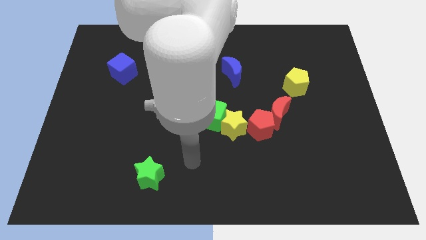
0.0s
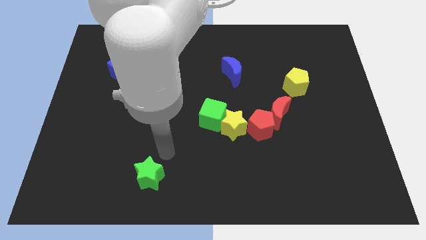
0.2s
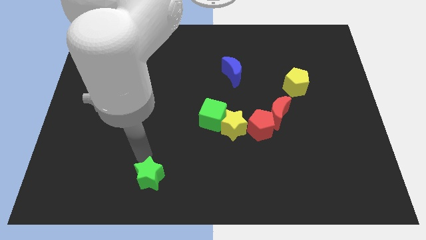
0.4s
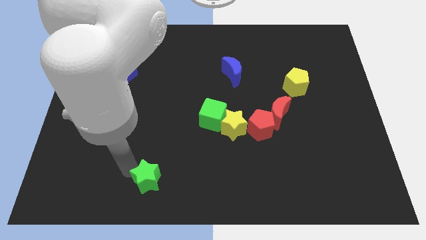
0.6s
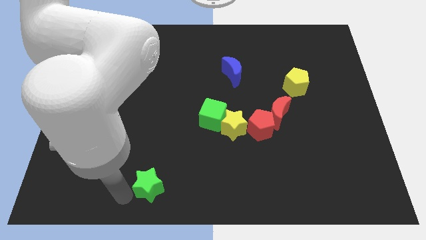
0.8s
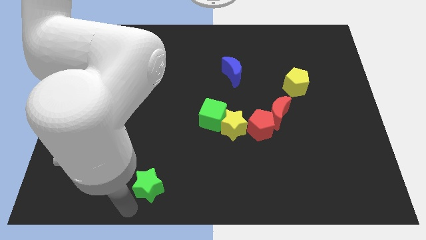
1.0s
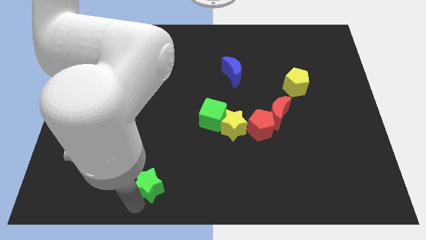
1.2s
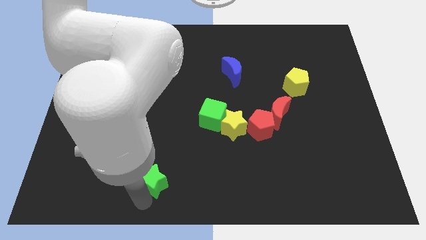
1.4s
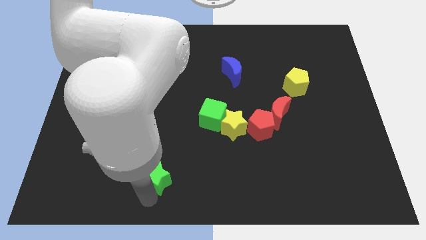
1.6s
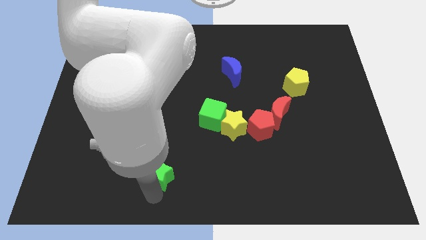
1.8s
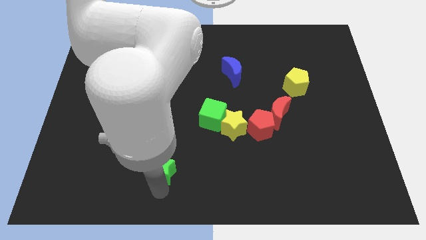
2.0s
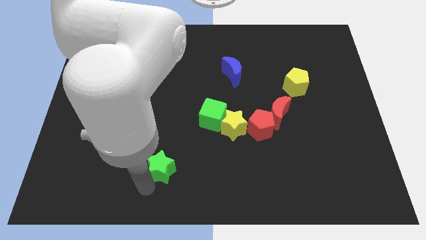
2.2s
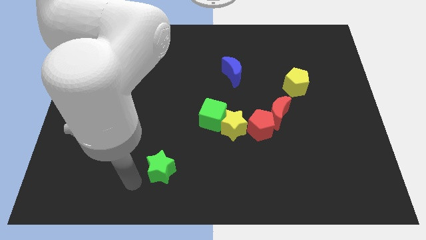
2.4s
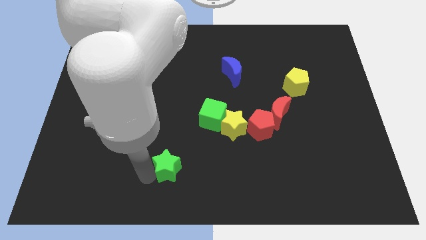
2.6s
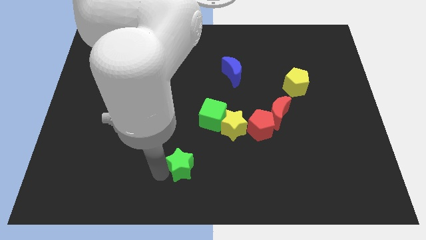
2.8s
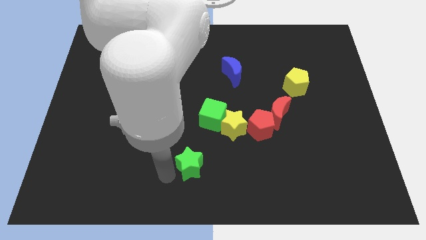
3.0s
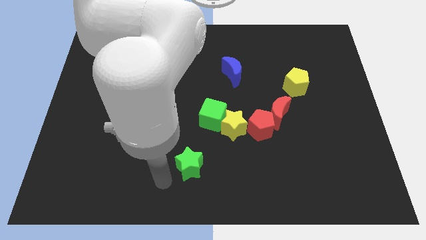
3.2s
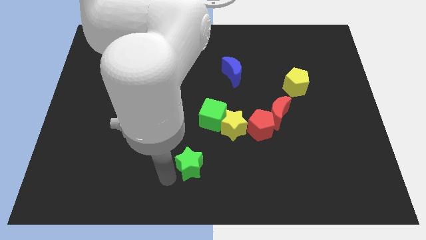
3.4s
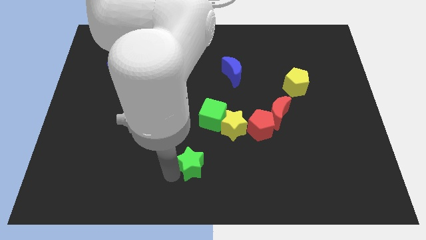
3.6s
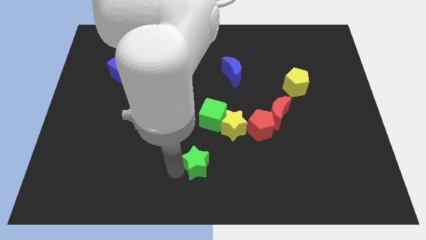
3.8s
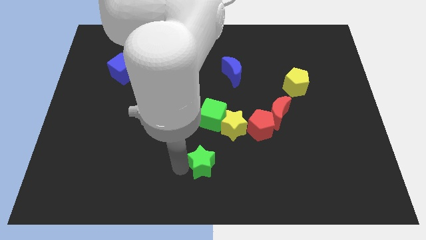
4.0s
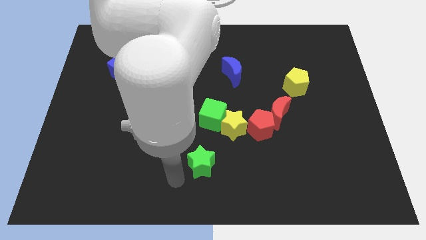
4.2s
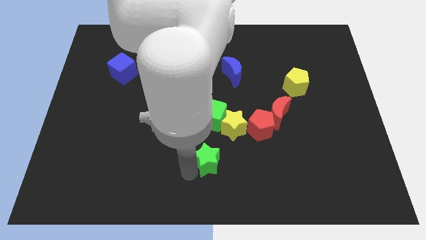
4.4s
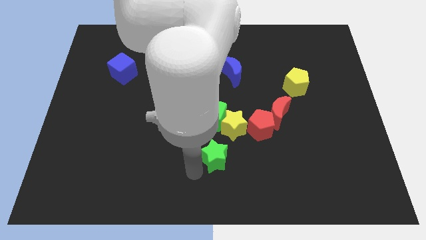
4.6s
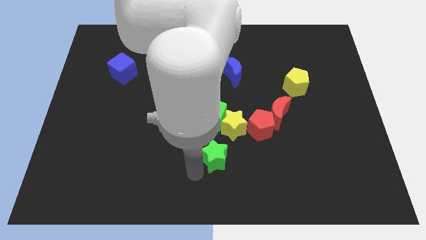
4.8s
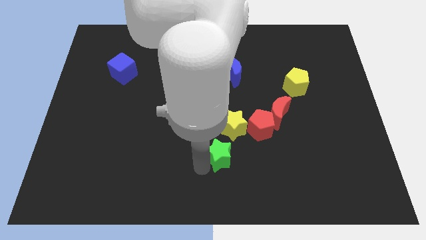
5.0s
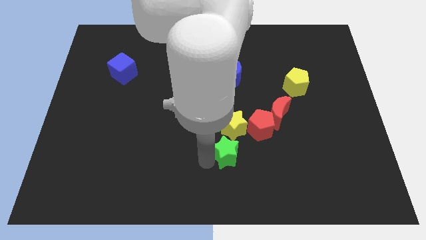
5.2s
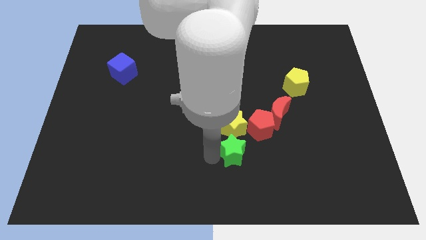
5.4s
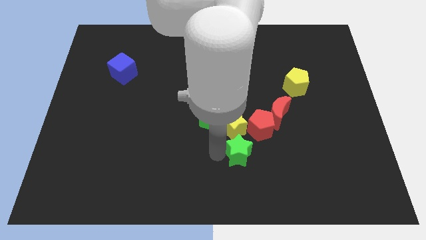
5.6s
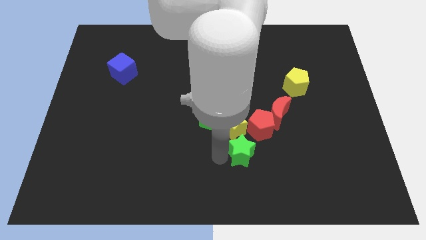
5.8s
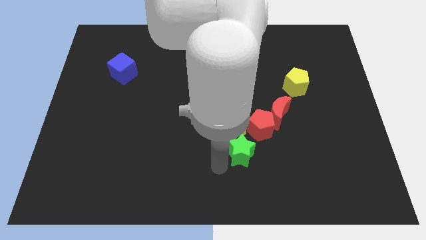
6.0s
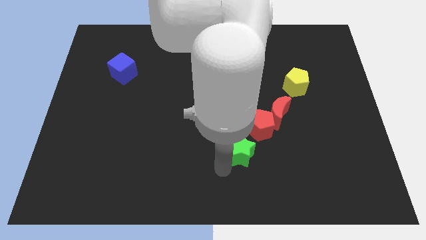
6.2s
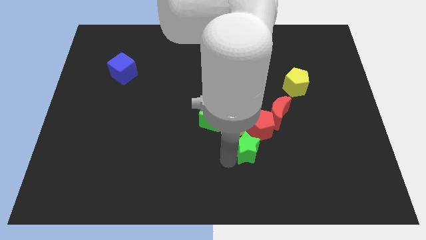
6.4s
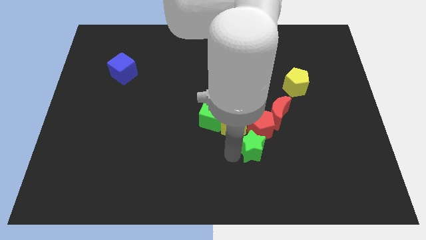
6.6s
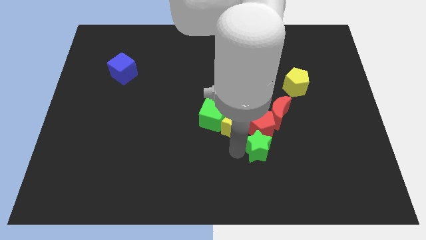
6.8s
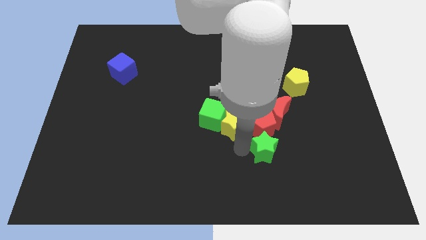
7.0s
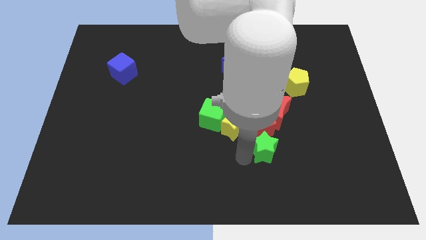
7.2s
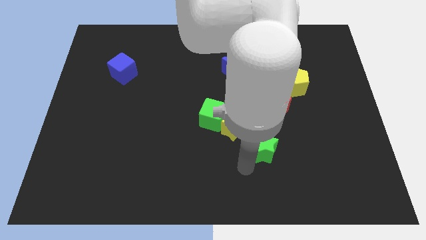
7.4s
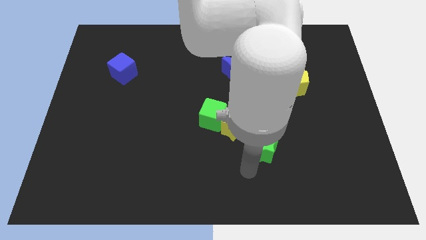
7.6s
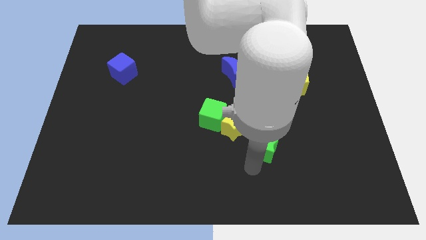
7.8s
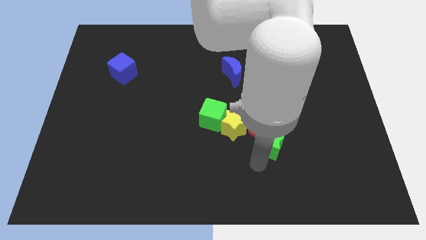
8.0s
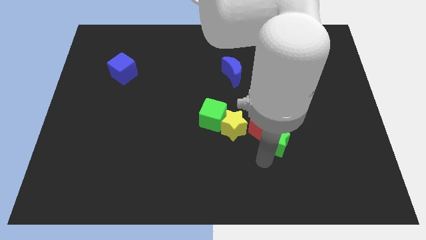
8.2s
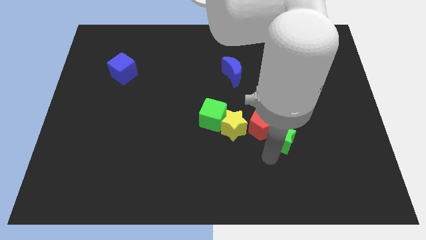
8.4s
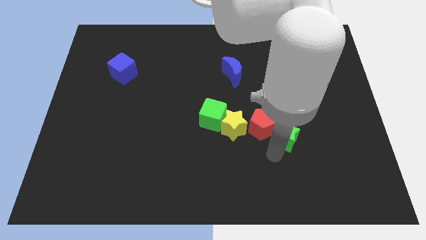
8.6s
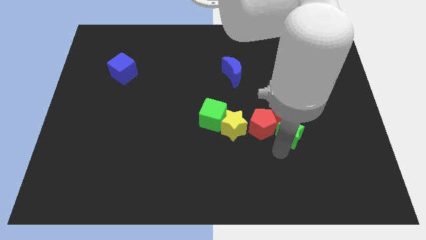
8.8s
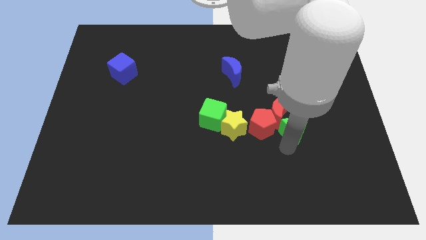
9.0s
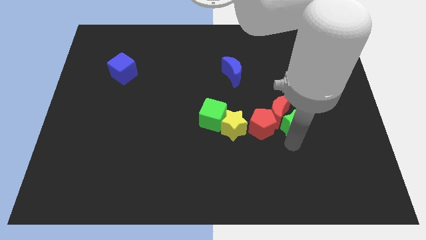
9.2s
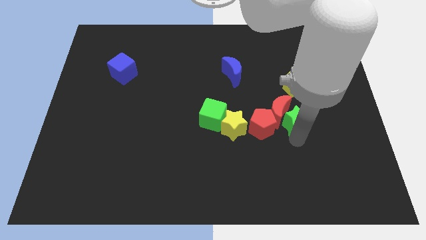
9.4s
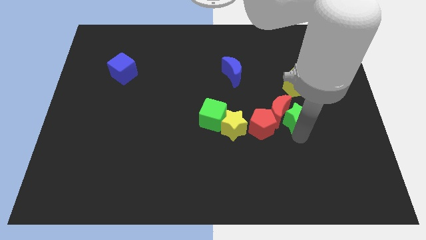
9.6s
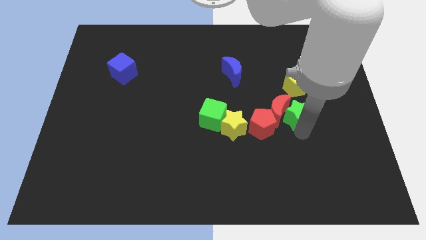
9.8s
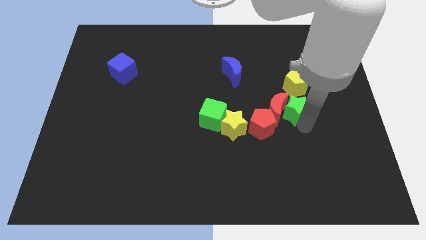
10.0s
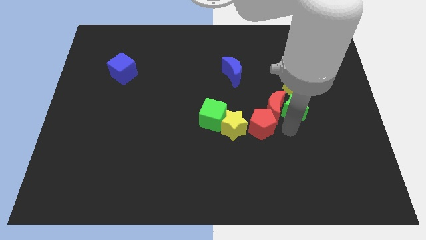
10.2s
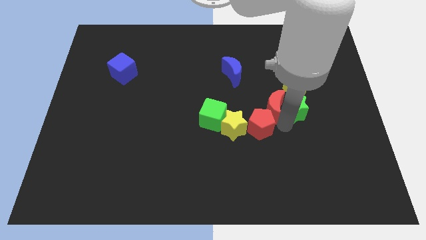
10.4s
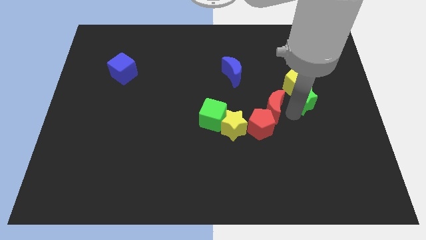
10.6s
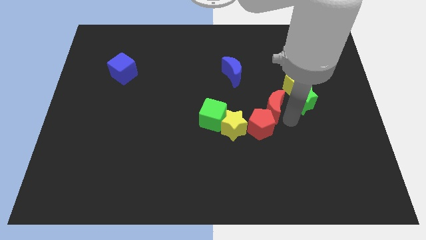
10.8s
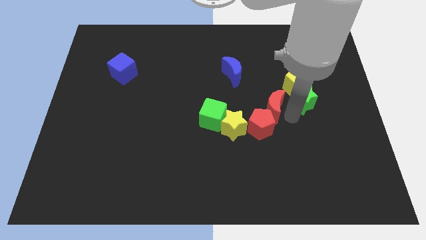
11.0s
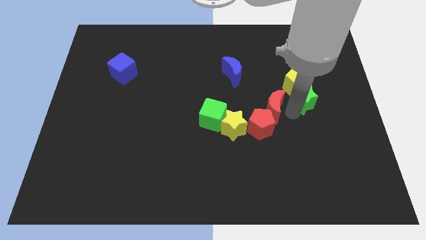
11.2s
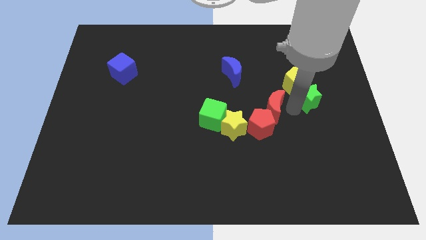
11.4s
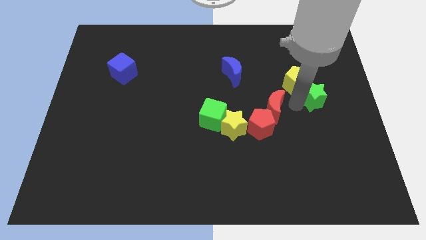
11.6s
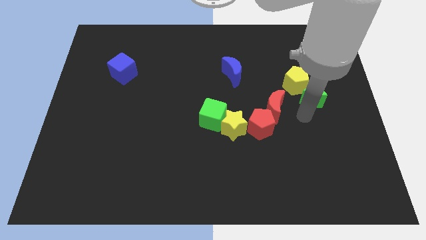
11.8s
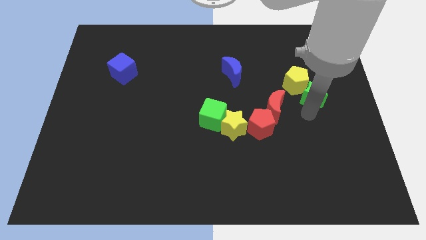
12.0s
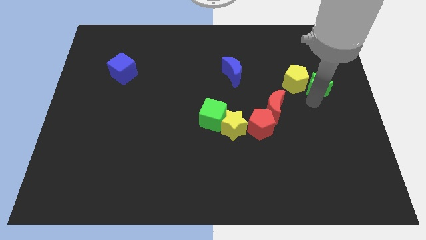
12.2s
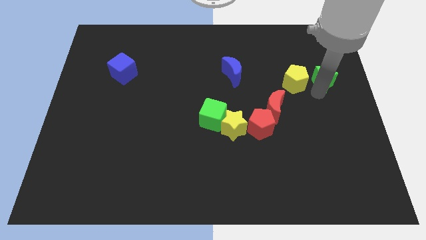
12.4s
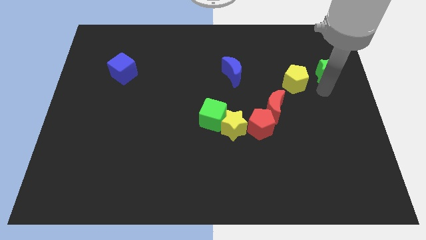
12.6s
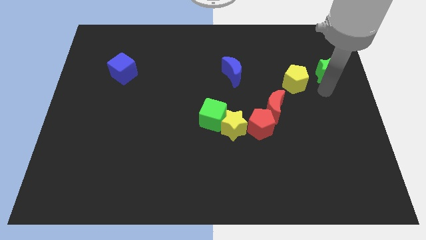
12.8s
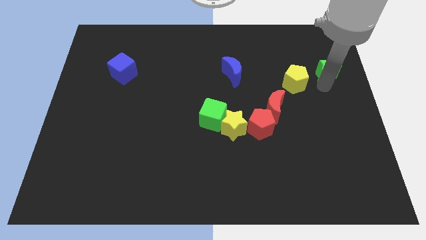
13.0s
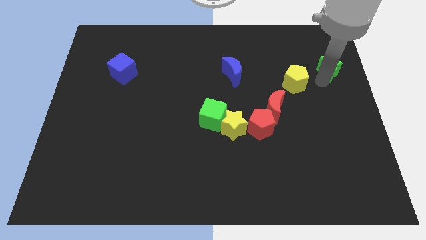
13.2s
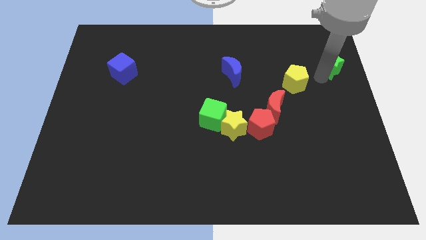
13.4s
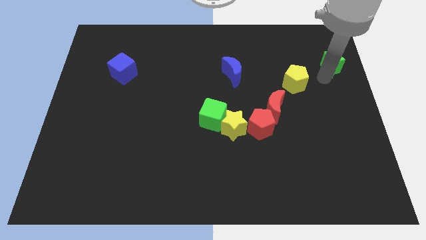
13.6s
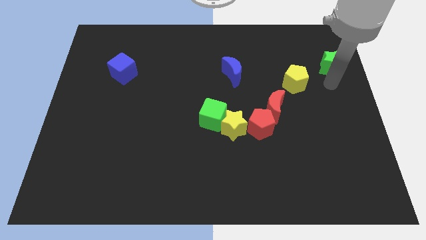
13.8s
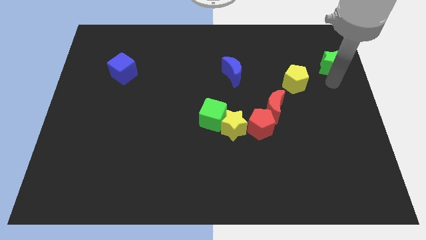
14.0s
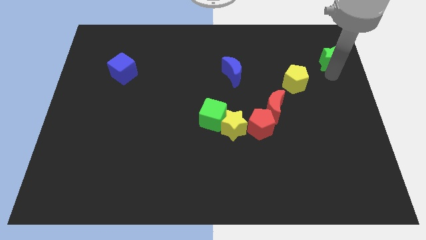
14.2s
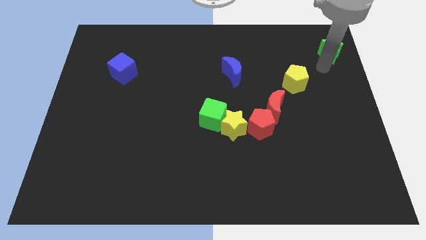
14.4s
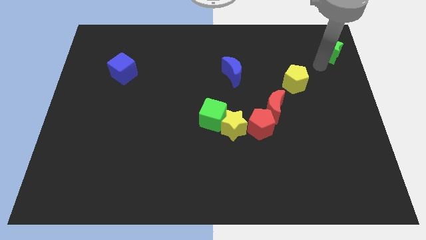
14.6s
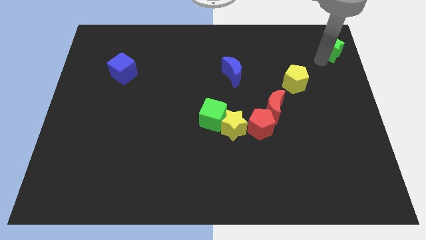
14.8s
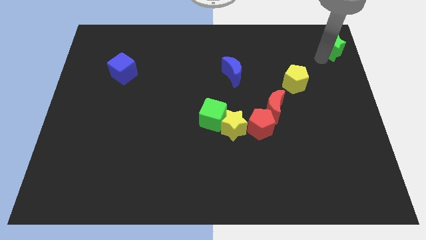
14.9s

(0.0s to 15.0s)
slide the green star to the top right of the board
